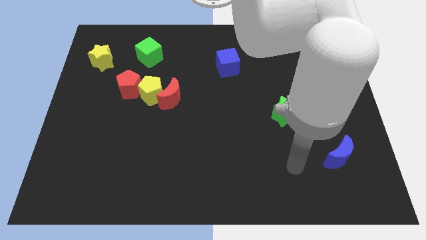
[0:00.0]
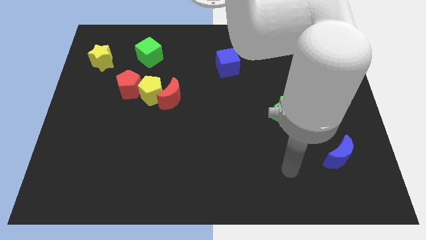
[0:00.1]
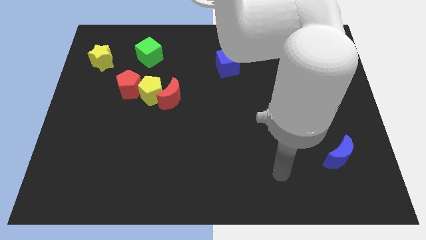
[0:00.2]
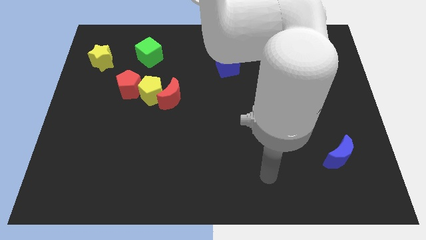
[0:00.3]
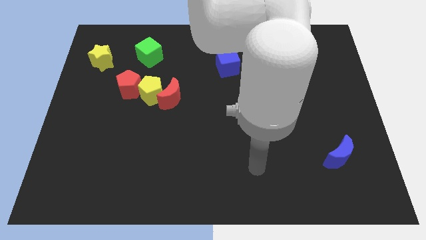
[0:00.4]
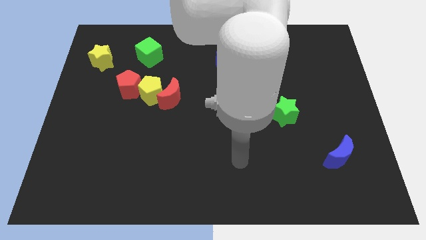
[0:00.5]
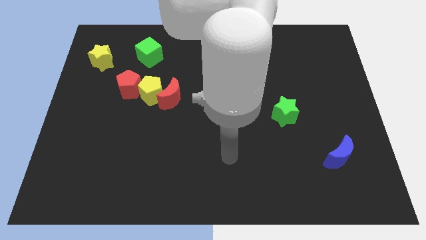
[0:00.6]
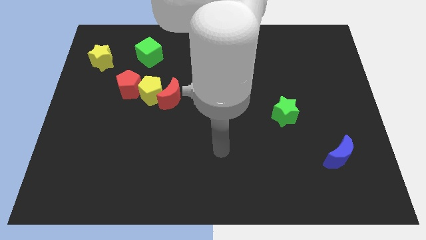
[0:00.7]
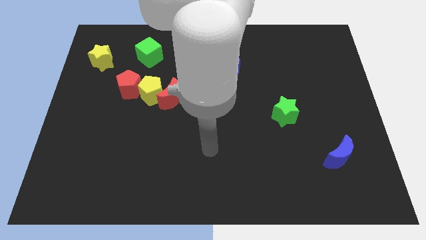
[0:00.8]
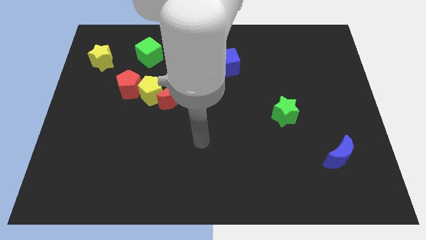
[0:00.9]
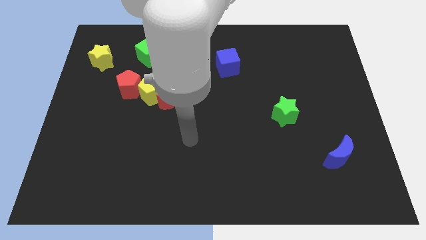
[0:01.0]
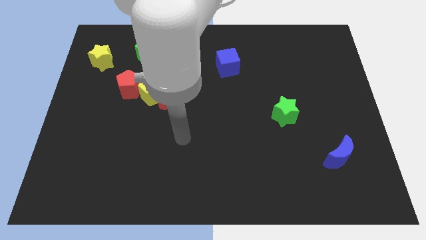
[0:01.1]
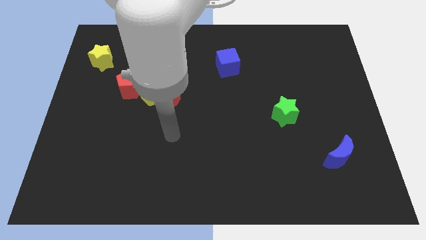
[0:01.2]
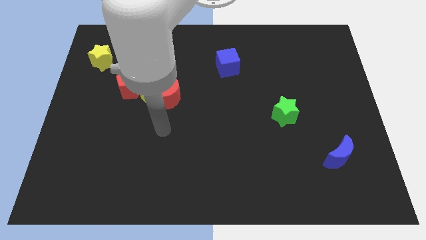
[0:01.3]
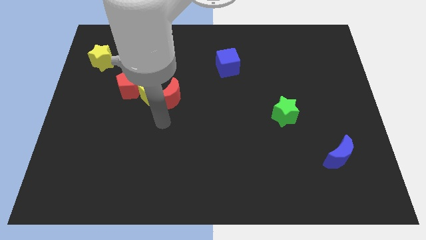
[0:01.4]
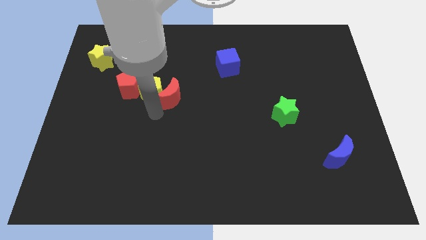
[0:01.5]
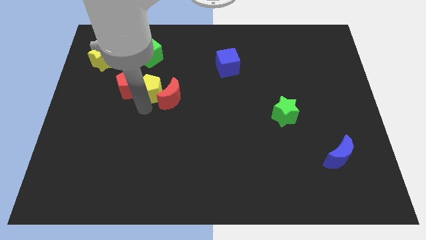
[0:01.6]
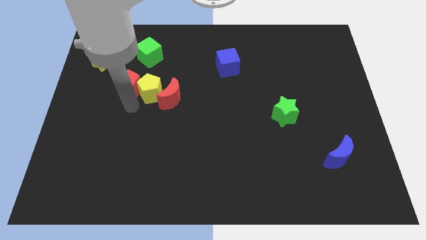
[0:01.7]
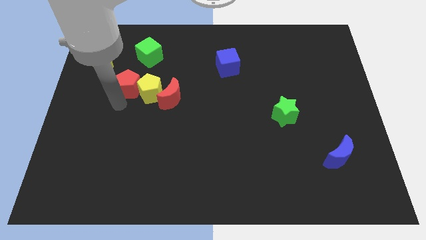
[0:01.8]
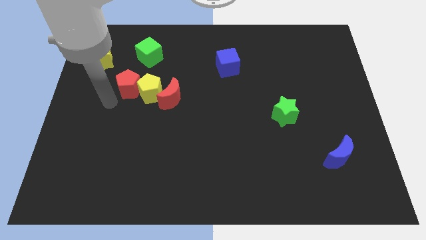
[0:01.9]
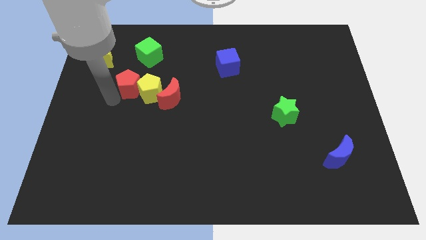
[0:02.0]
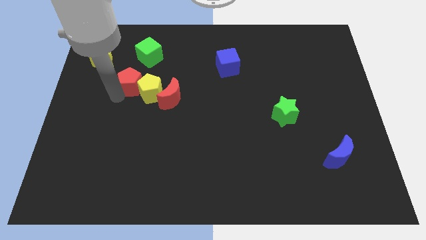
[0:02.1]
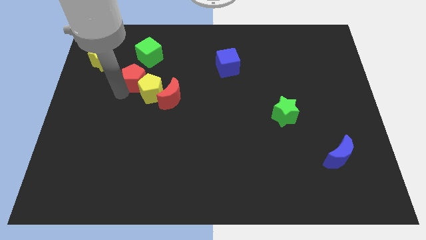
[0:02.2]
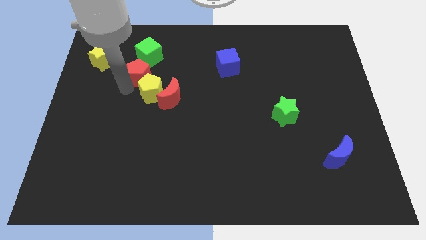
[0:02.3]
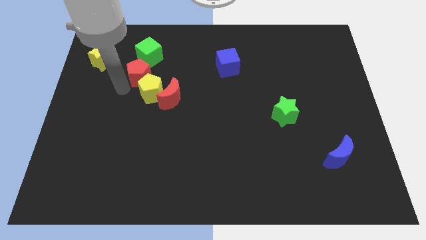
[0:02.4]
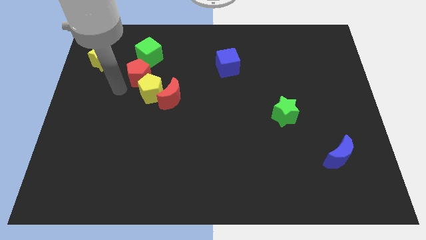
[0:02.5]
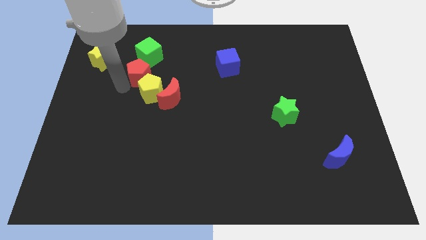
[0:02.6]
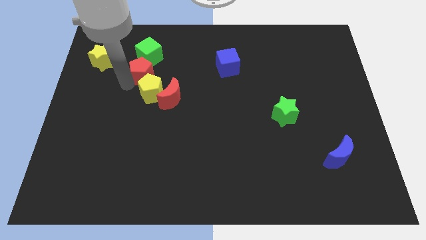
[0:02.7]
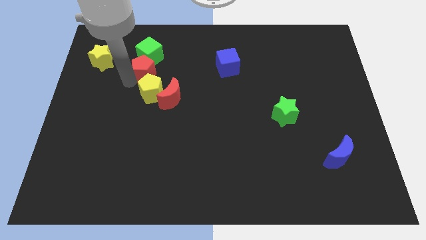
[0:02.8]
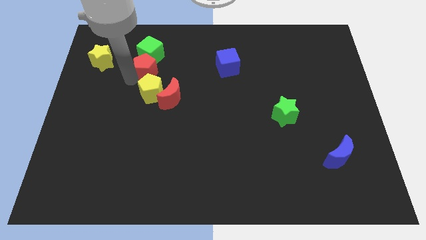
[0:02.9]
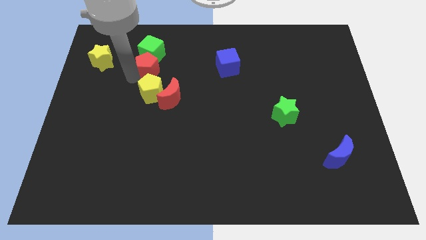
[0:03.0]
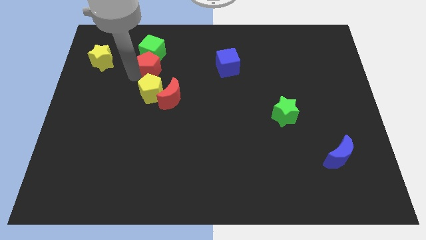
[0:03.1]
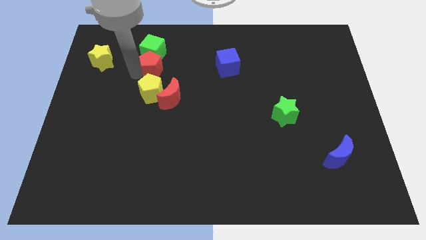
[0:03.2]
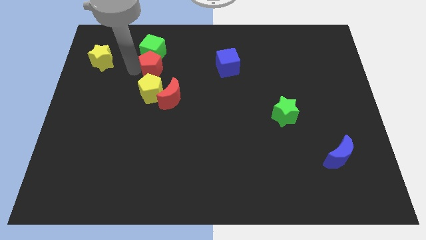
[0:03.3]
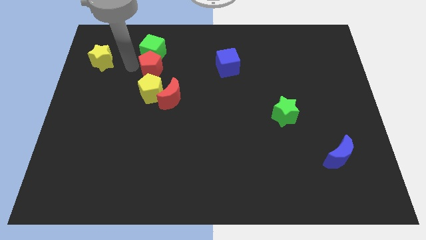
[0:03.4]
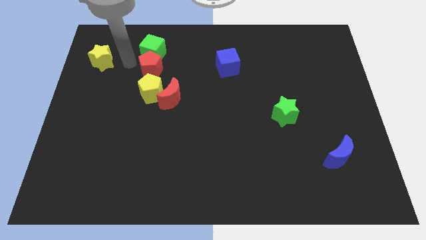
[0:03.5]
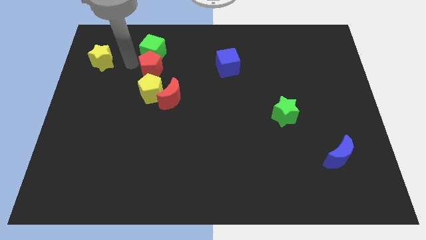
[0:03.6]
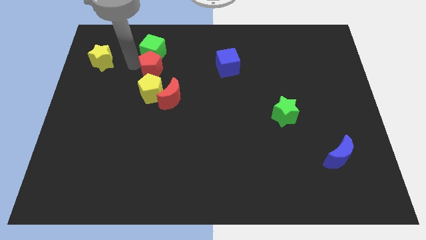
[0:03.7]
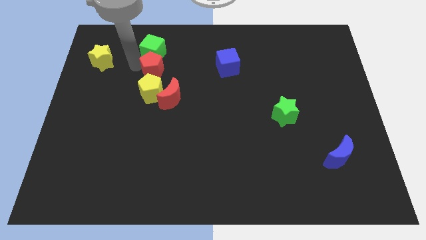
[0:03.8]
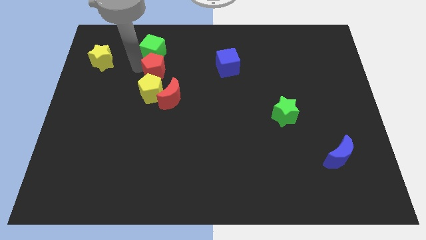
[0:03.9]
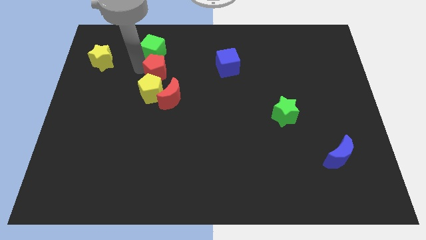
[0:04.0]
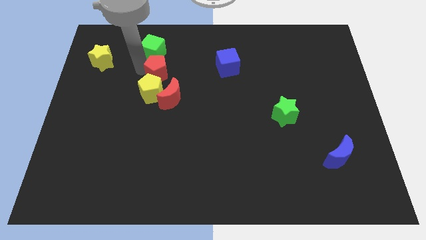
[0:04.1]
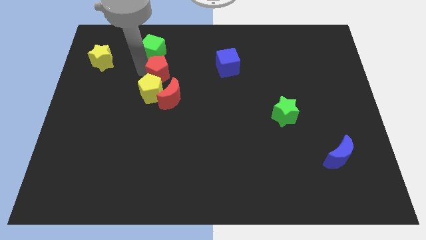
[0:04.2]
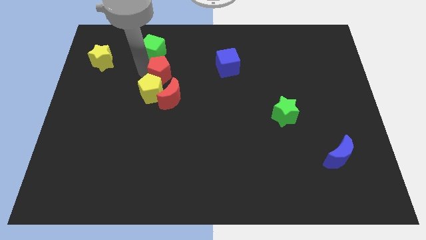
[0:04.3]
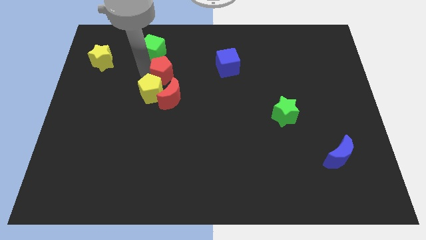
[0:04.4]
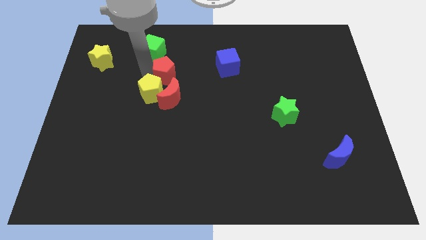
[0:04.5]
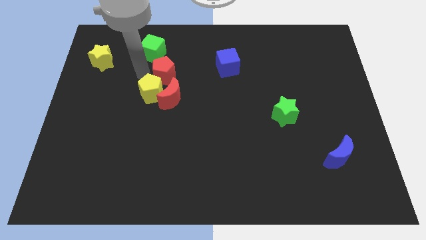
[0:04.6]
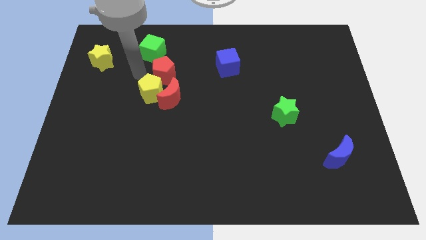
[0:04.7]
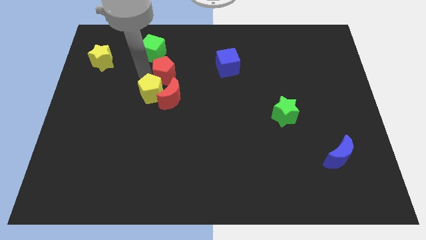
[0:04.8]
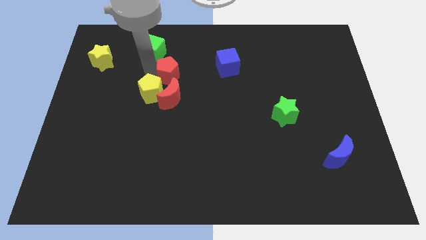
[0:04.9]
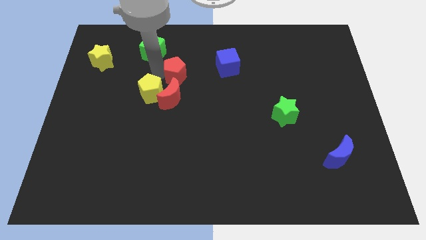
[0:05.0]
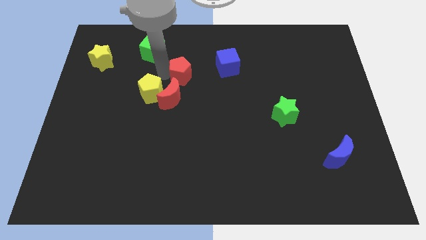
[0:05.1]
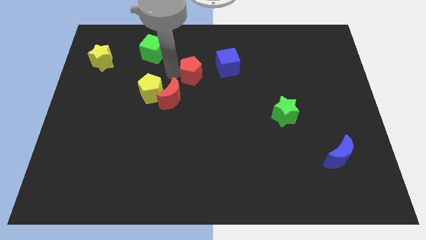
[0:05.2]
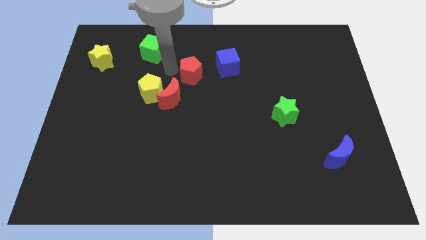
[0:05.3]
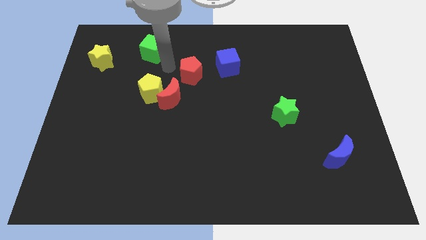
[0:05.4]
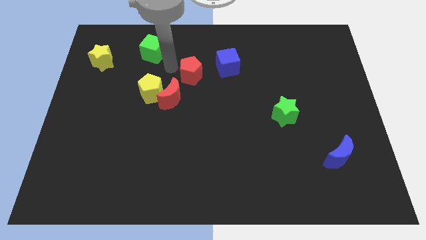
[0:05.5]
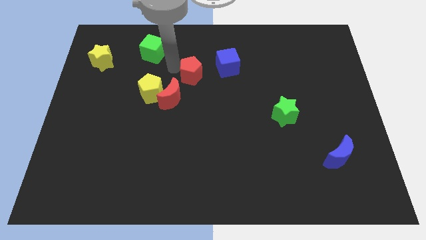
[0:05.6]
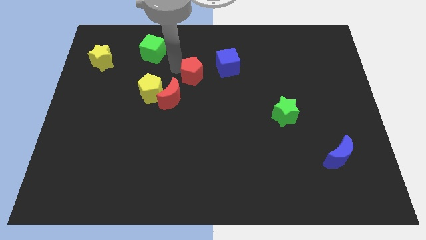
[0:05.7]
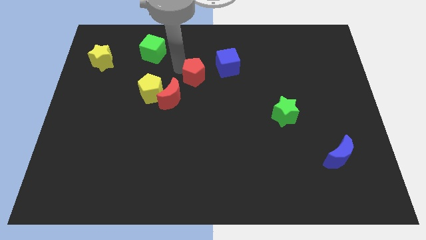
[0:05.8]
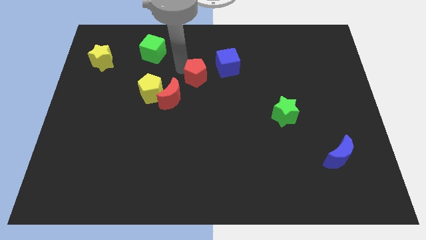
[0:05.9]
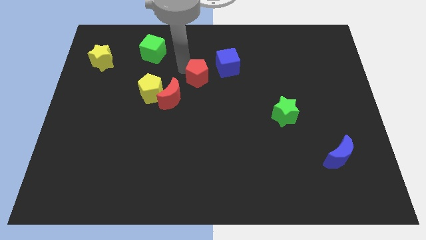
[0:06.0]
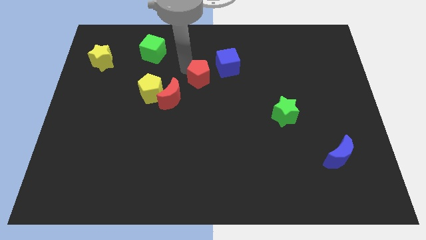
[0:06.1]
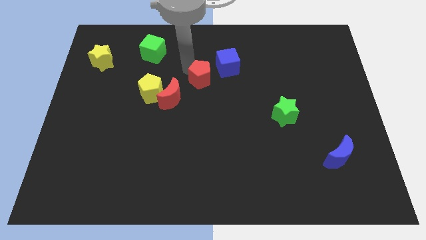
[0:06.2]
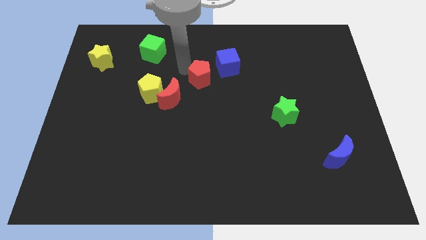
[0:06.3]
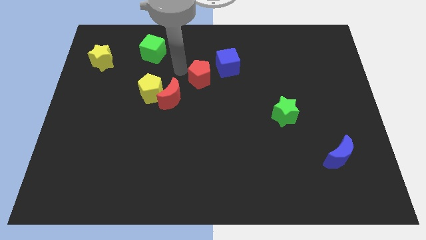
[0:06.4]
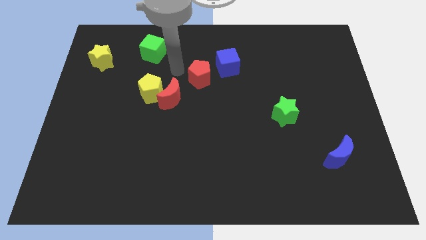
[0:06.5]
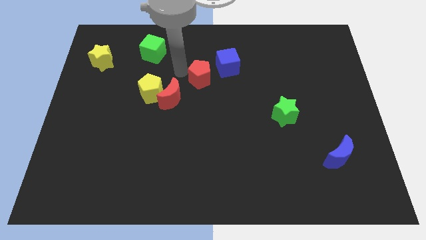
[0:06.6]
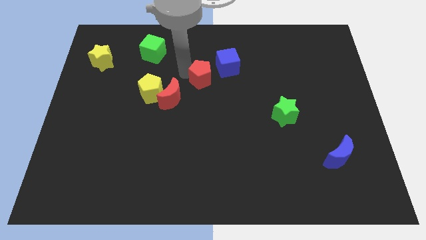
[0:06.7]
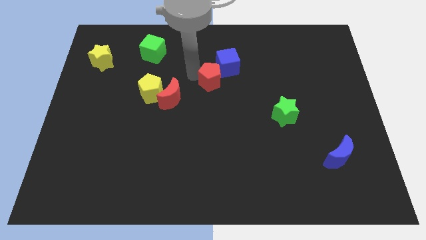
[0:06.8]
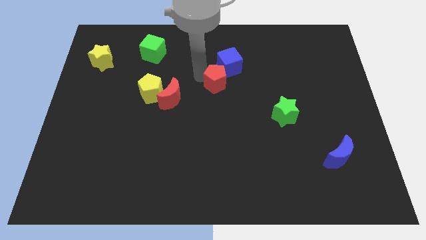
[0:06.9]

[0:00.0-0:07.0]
move the red pentagon to the right

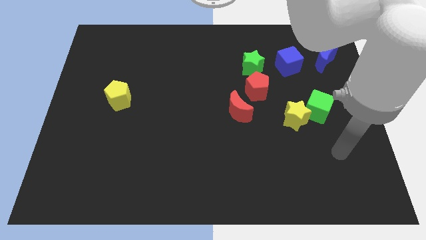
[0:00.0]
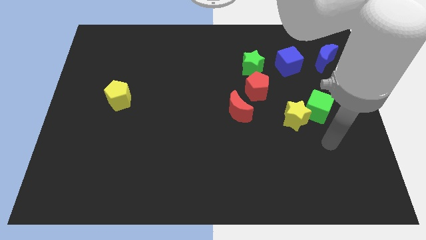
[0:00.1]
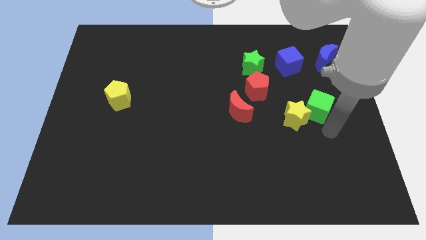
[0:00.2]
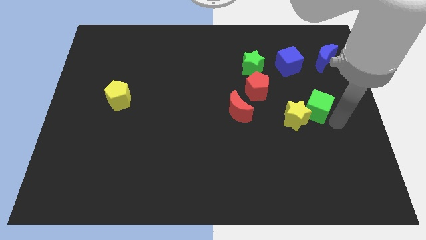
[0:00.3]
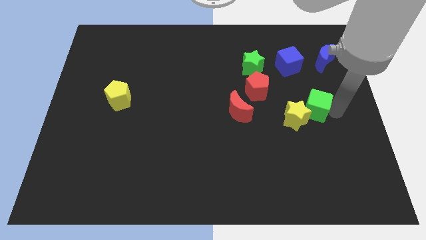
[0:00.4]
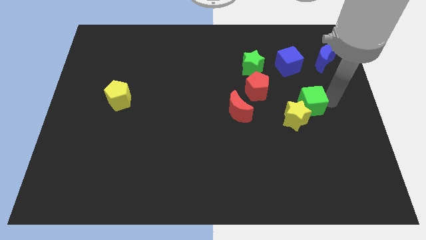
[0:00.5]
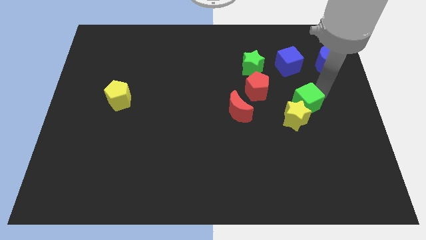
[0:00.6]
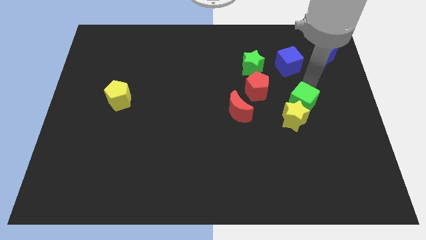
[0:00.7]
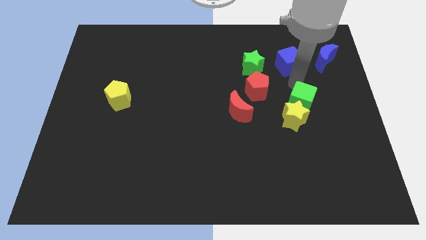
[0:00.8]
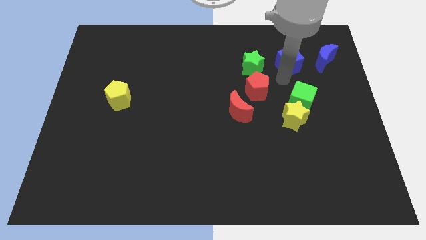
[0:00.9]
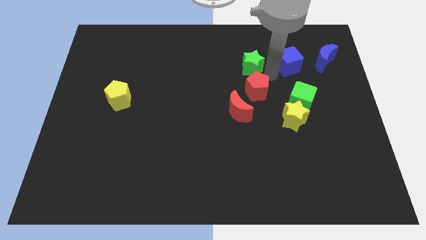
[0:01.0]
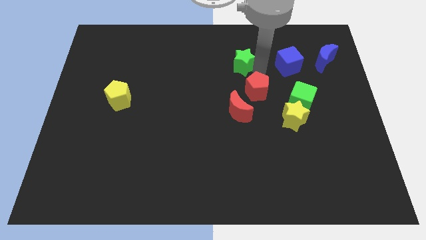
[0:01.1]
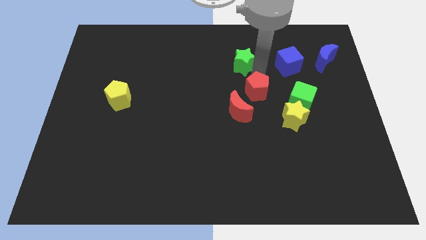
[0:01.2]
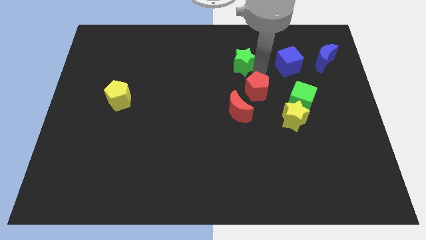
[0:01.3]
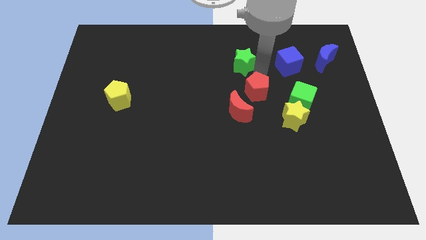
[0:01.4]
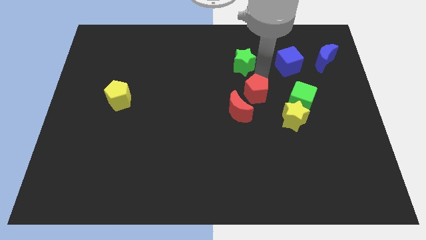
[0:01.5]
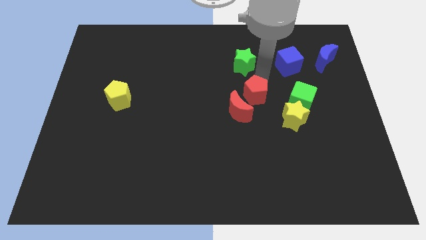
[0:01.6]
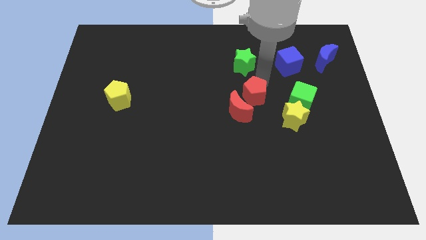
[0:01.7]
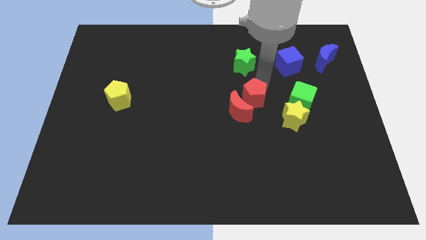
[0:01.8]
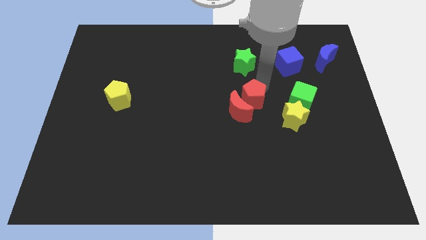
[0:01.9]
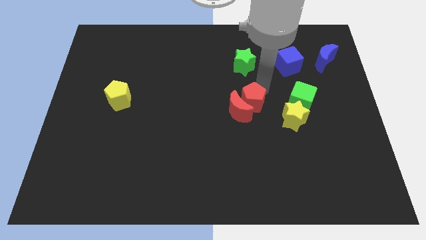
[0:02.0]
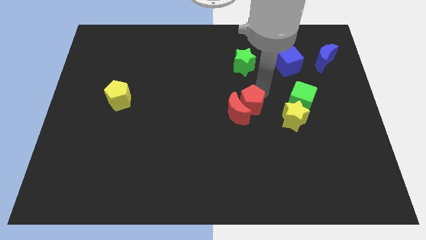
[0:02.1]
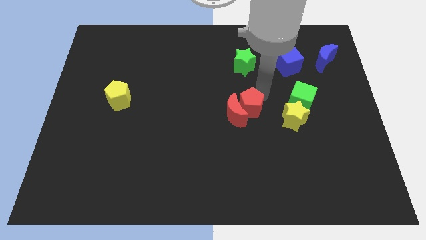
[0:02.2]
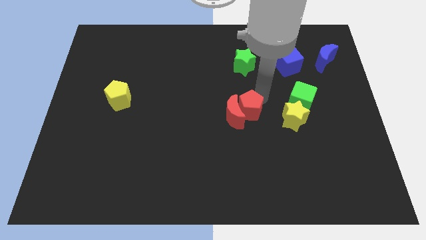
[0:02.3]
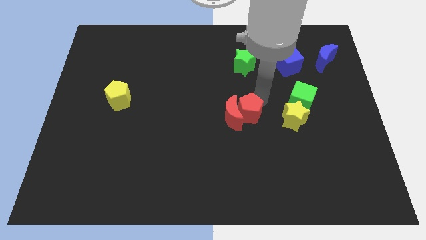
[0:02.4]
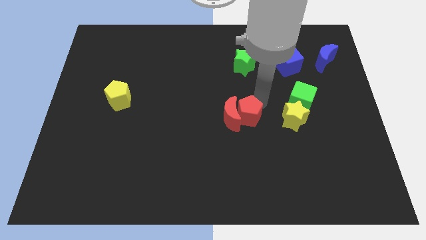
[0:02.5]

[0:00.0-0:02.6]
slightly slide the red pentagon down
